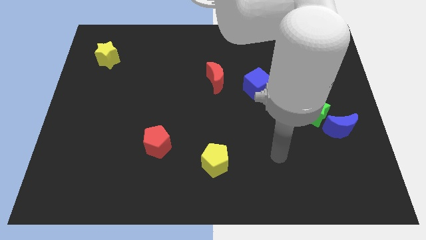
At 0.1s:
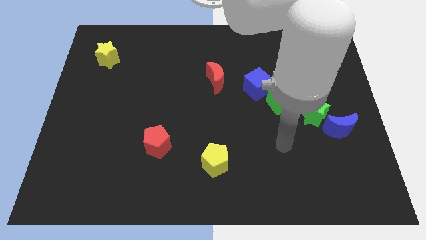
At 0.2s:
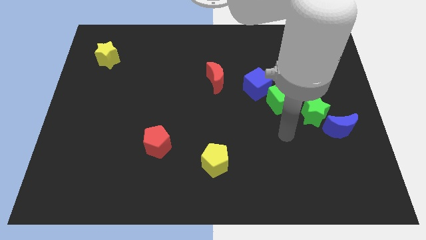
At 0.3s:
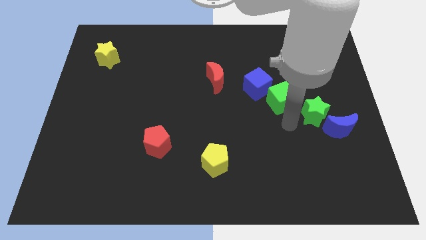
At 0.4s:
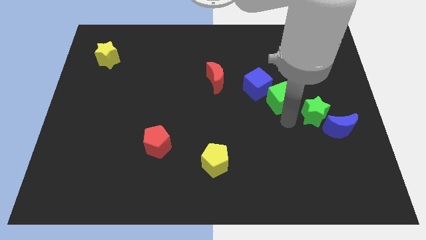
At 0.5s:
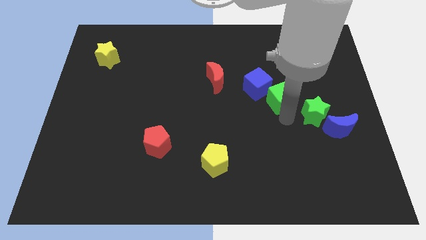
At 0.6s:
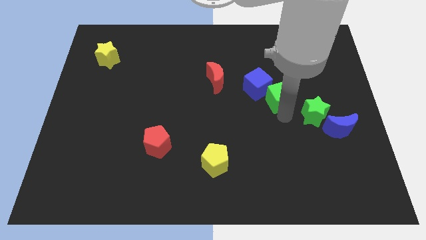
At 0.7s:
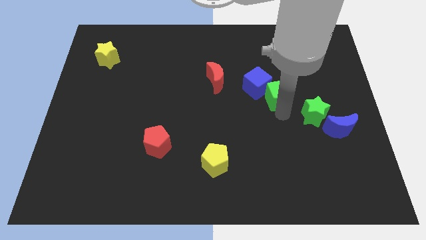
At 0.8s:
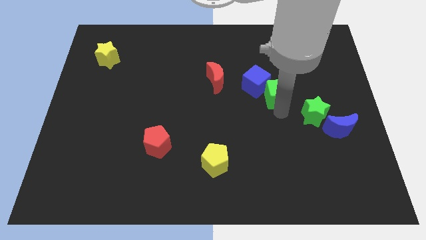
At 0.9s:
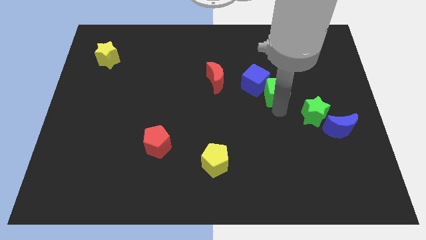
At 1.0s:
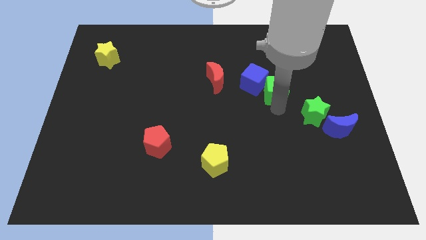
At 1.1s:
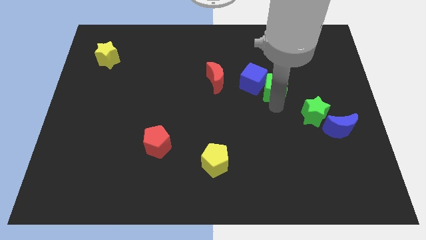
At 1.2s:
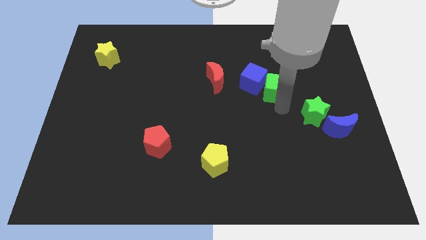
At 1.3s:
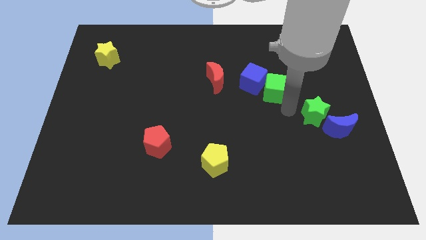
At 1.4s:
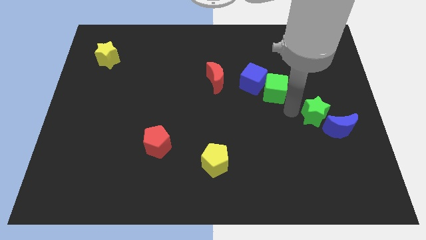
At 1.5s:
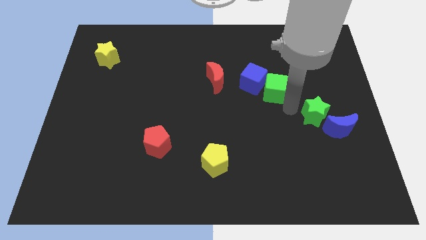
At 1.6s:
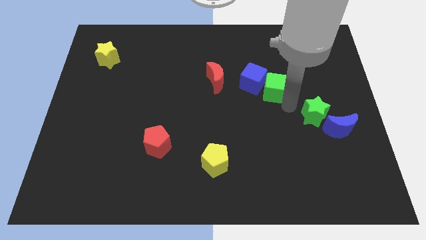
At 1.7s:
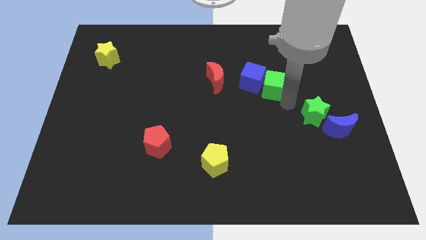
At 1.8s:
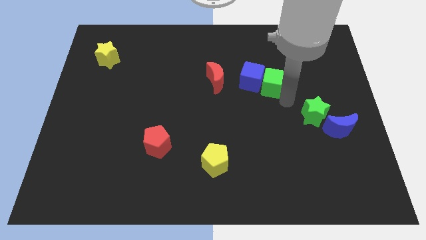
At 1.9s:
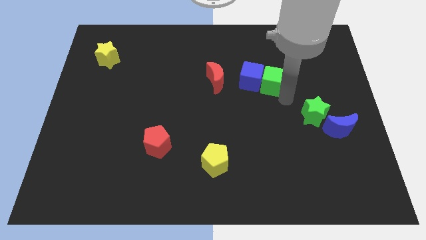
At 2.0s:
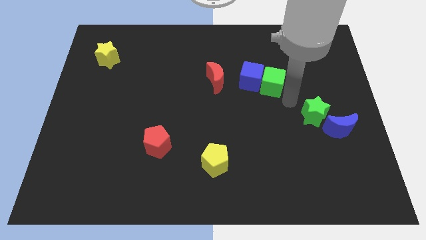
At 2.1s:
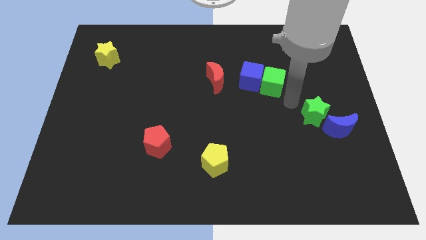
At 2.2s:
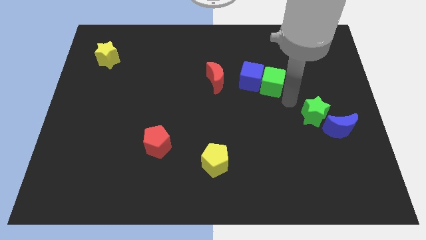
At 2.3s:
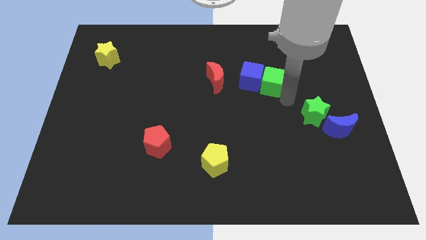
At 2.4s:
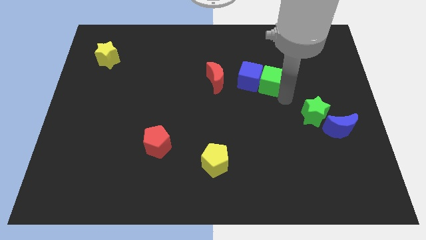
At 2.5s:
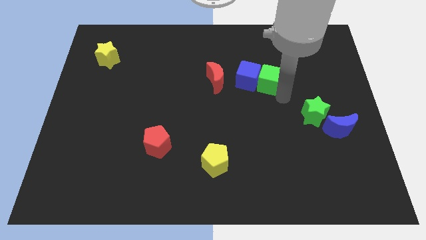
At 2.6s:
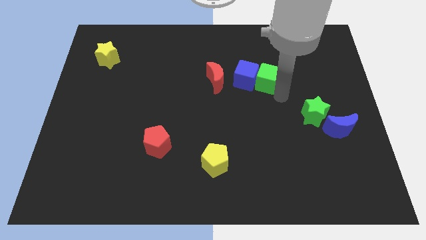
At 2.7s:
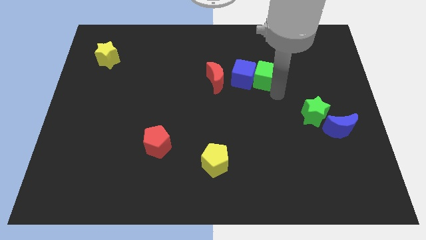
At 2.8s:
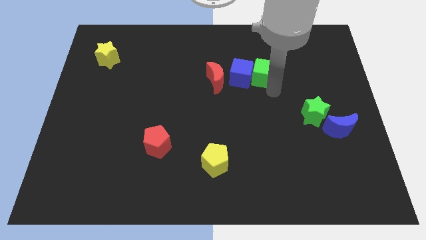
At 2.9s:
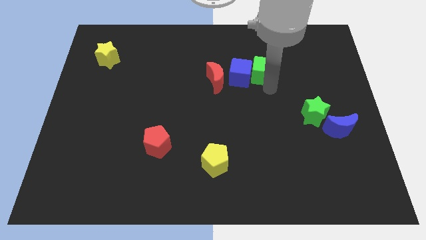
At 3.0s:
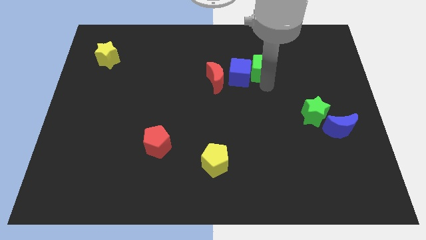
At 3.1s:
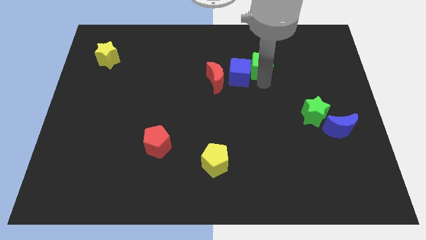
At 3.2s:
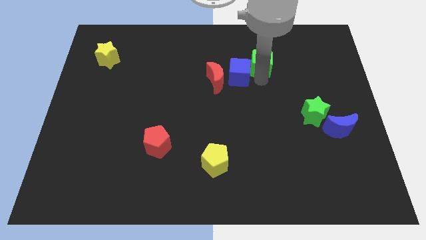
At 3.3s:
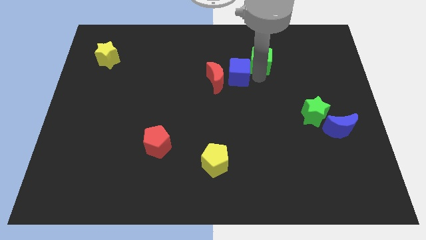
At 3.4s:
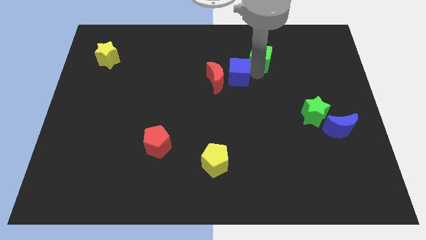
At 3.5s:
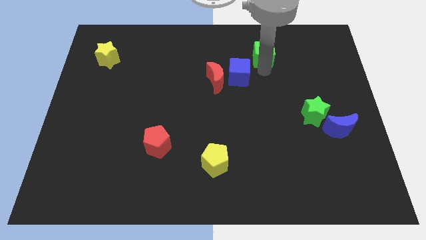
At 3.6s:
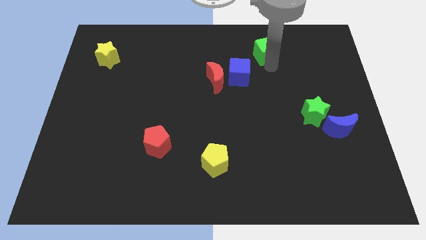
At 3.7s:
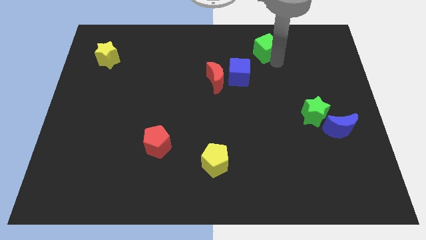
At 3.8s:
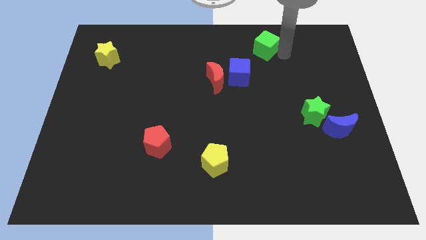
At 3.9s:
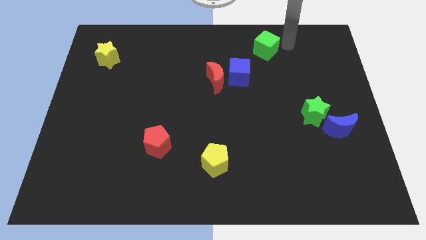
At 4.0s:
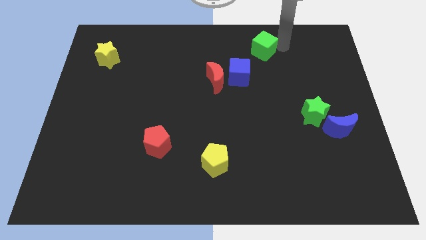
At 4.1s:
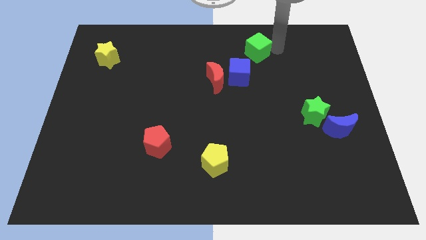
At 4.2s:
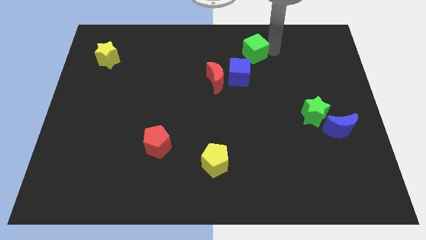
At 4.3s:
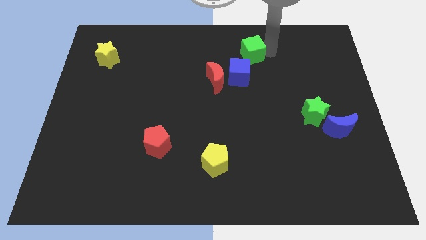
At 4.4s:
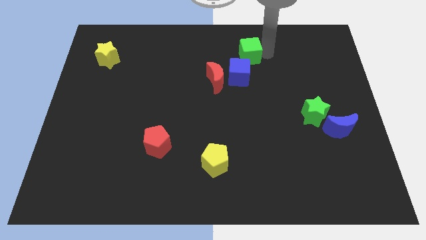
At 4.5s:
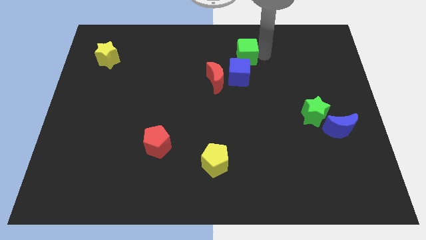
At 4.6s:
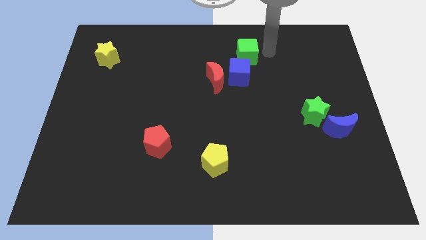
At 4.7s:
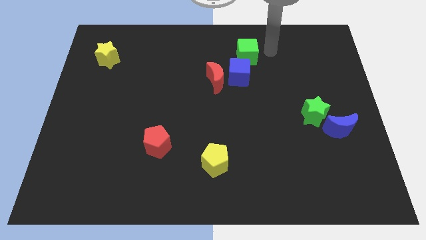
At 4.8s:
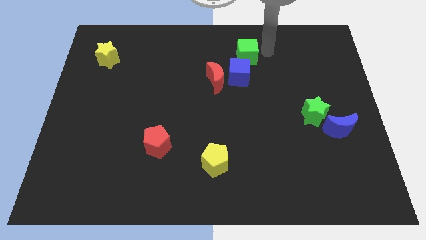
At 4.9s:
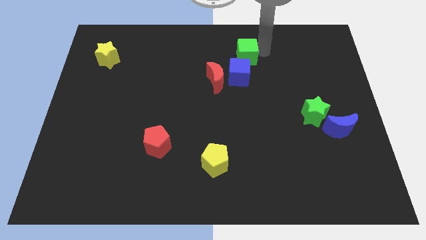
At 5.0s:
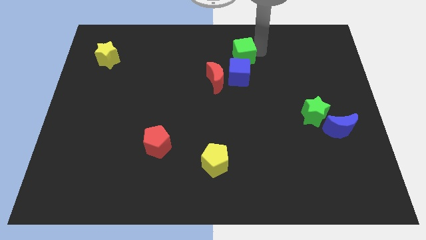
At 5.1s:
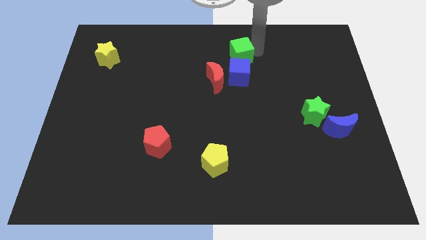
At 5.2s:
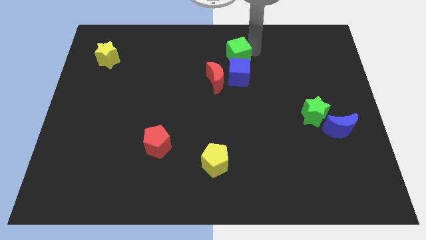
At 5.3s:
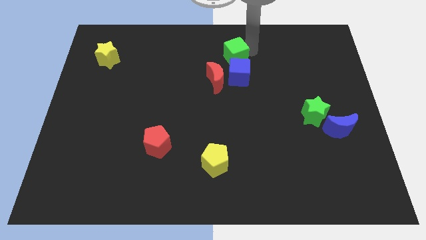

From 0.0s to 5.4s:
slide the green cube diagonally up and to the left of the blue cube

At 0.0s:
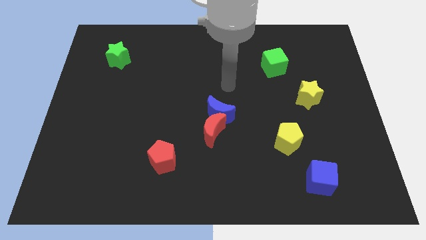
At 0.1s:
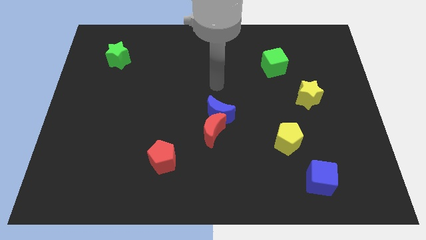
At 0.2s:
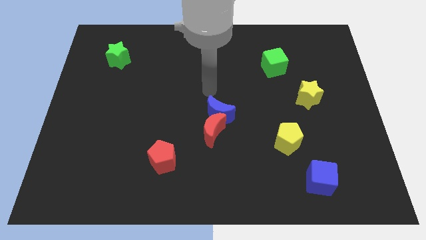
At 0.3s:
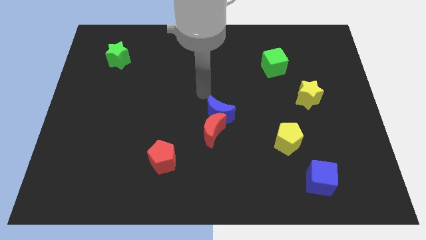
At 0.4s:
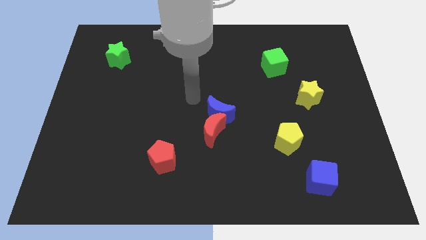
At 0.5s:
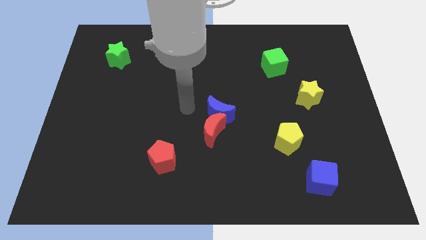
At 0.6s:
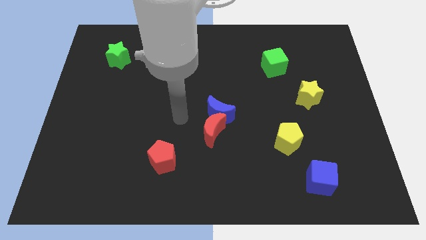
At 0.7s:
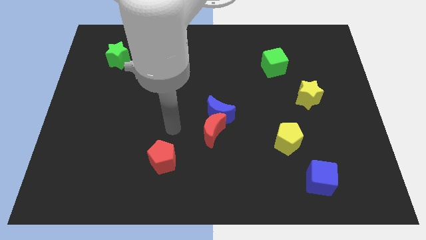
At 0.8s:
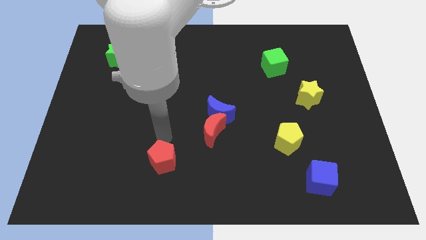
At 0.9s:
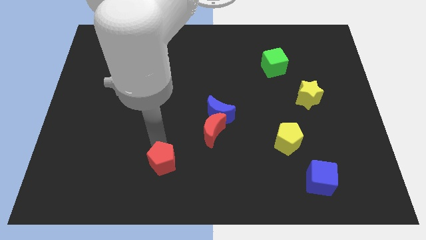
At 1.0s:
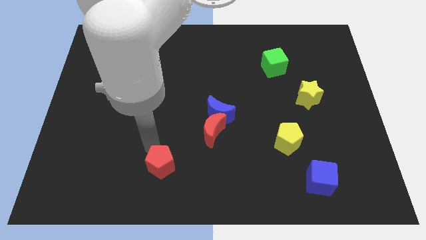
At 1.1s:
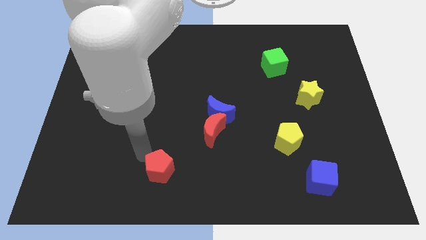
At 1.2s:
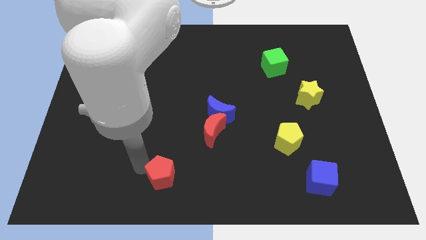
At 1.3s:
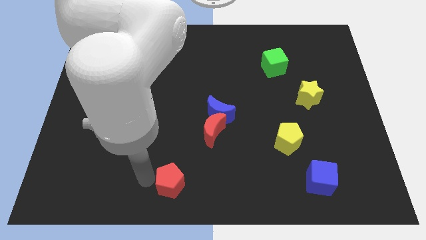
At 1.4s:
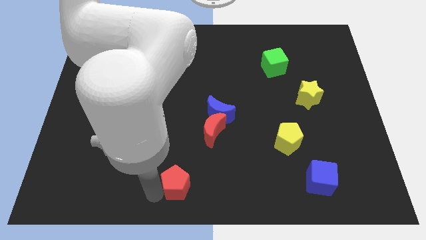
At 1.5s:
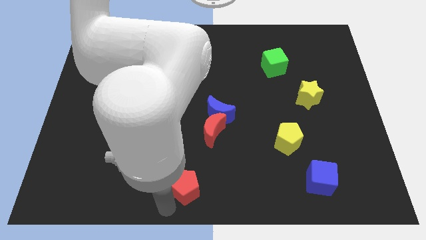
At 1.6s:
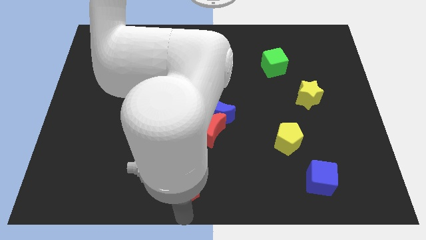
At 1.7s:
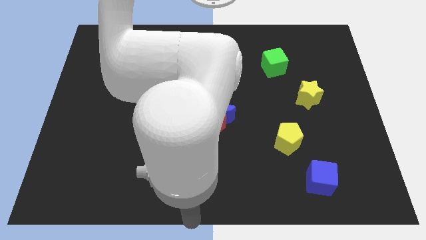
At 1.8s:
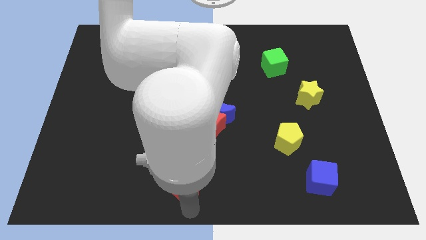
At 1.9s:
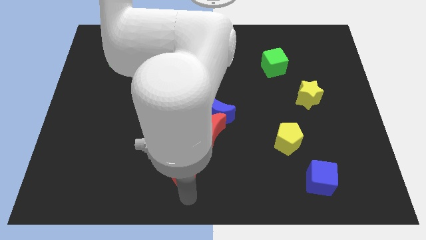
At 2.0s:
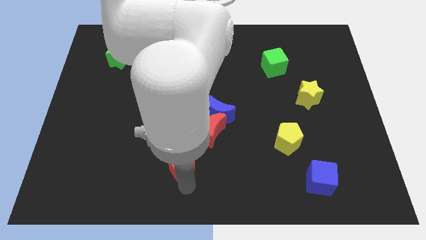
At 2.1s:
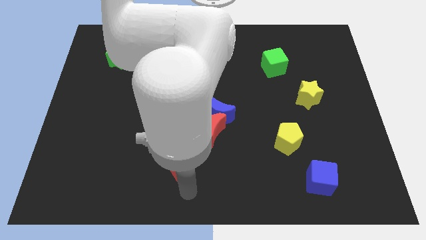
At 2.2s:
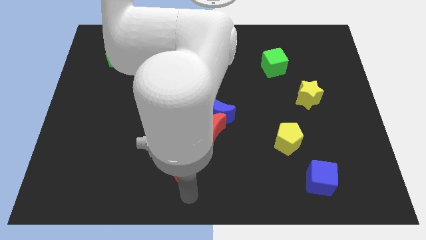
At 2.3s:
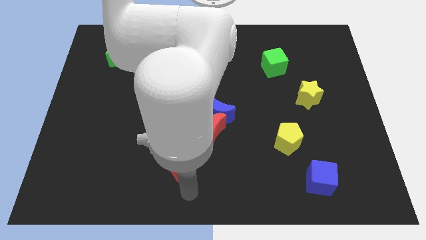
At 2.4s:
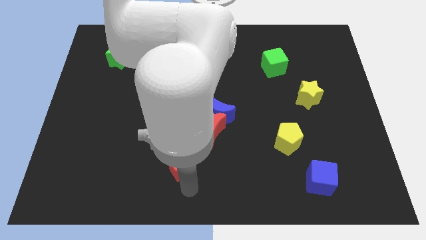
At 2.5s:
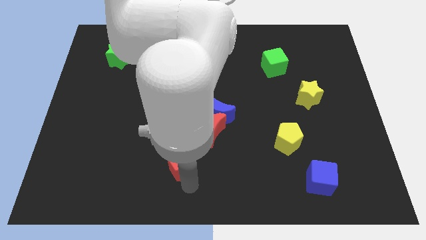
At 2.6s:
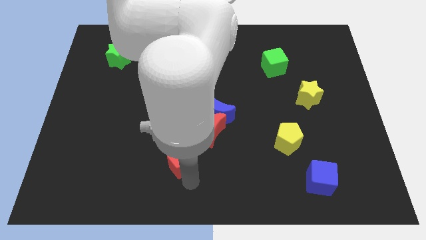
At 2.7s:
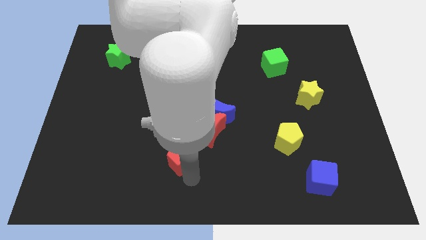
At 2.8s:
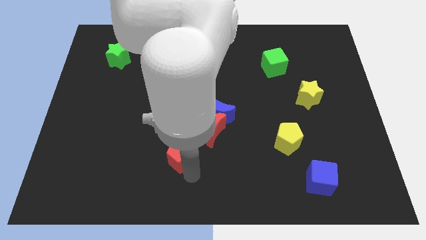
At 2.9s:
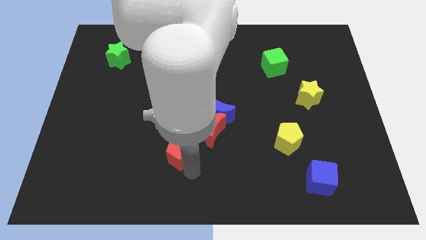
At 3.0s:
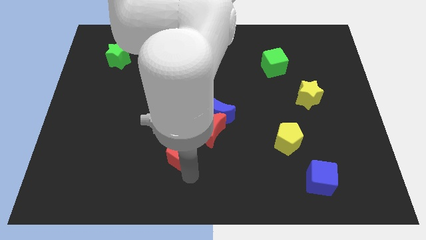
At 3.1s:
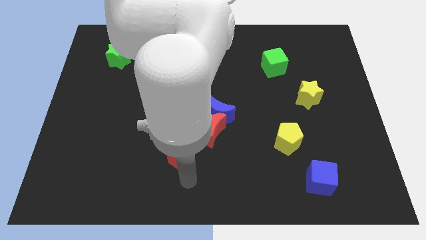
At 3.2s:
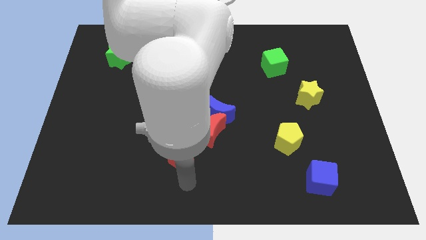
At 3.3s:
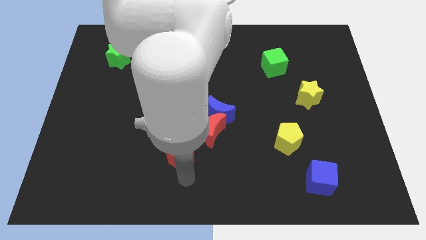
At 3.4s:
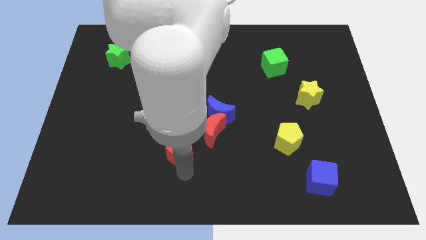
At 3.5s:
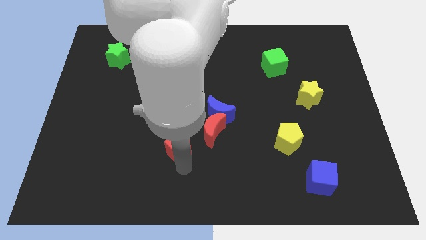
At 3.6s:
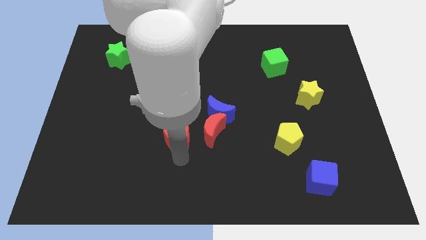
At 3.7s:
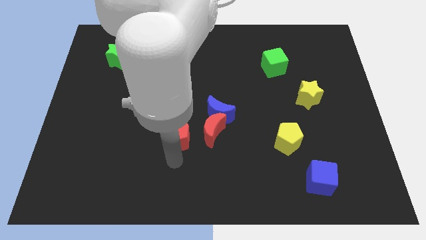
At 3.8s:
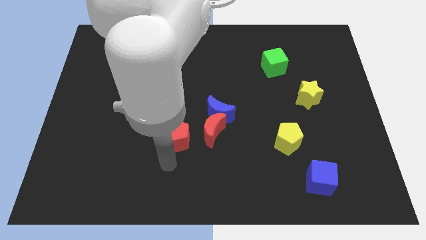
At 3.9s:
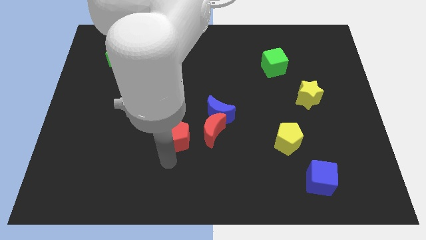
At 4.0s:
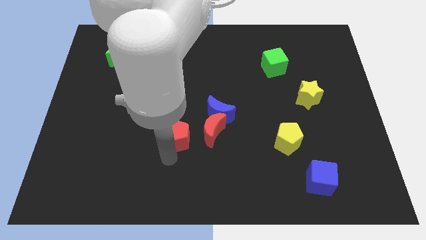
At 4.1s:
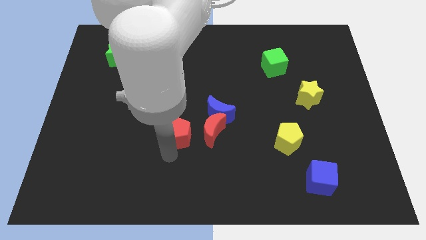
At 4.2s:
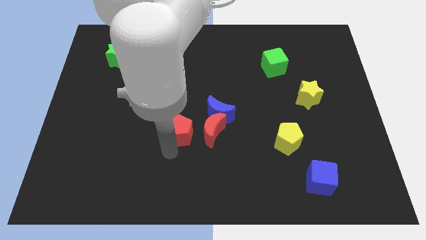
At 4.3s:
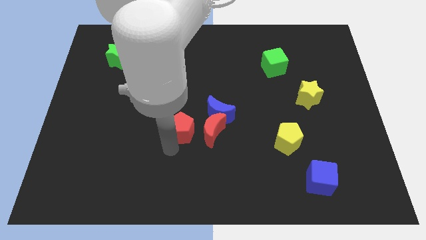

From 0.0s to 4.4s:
put the red pentagon to the top left of the red moon
